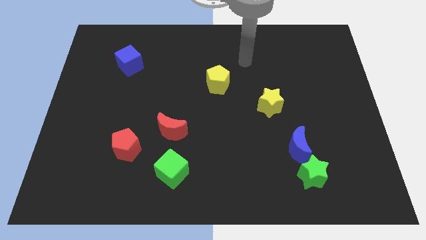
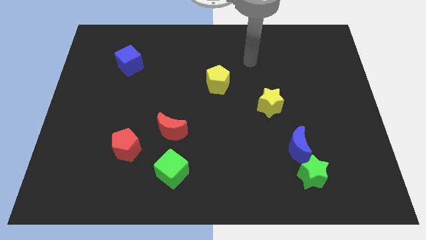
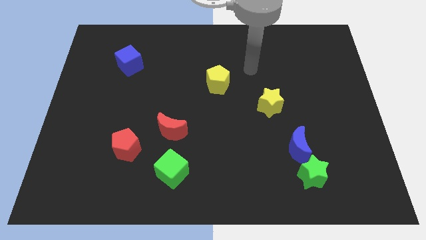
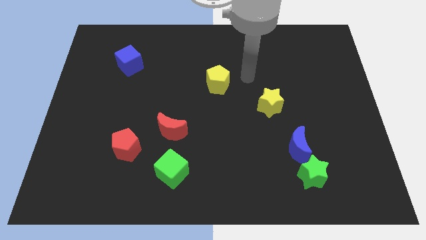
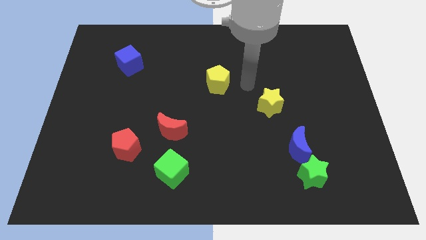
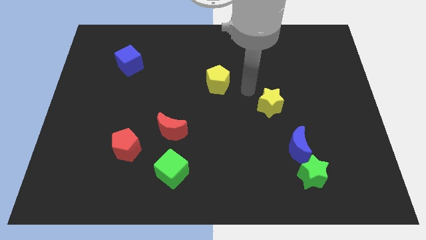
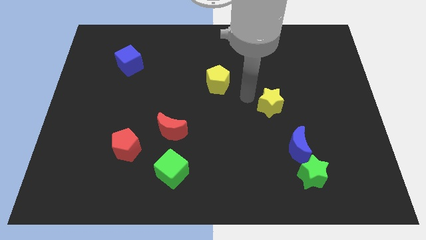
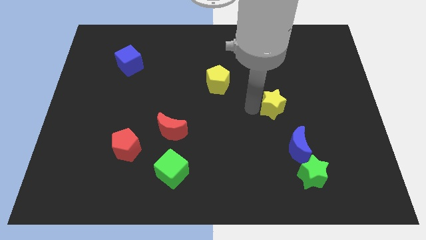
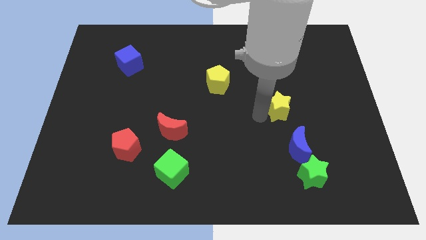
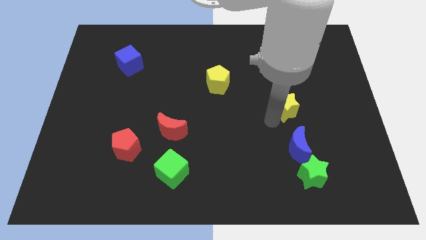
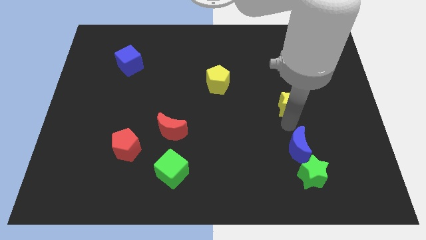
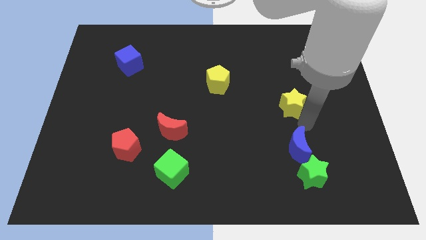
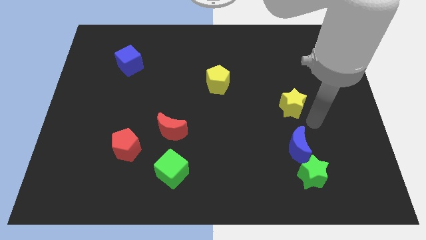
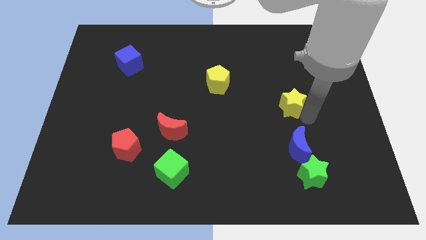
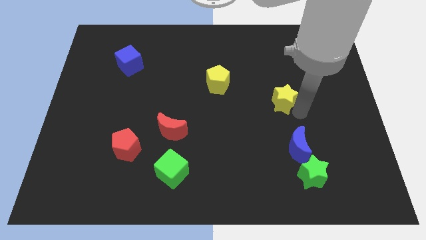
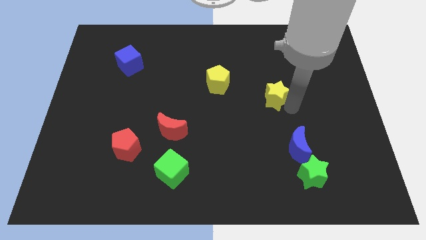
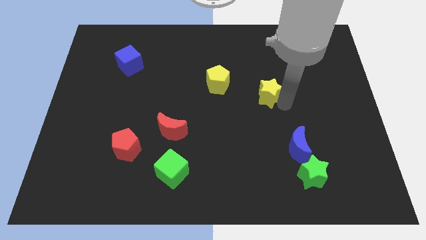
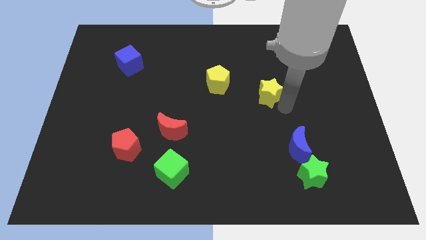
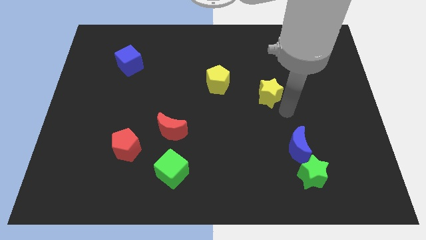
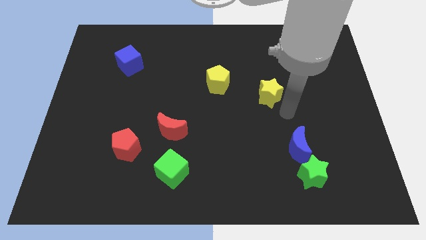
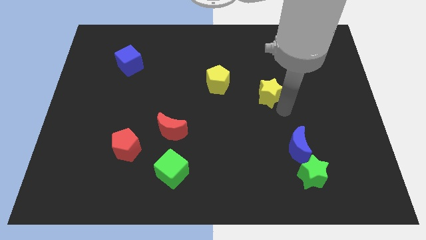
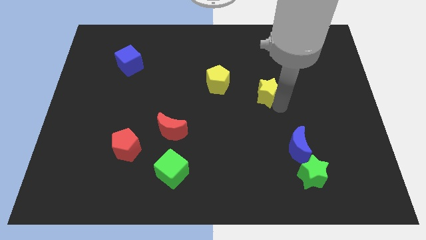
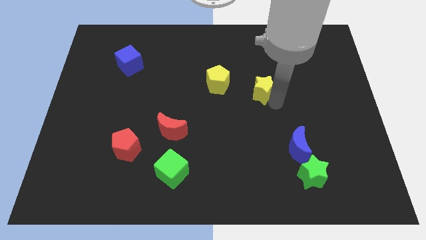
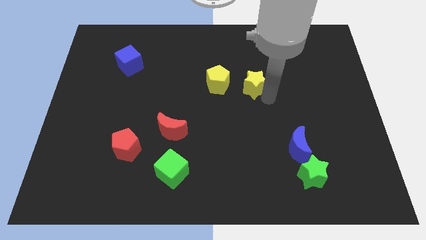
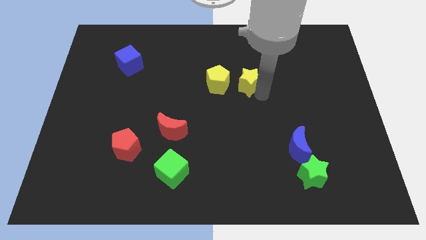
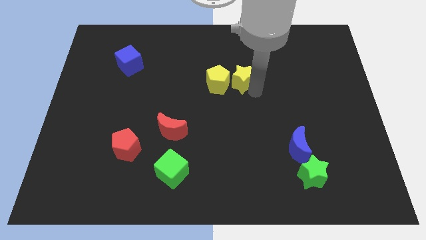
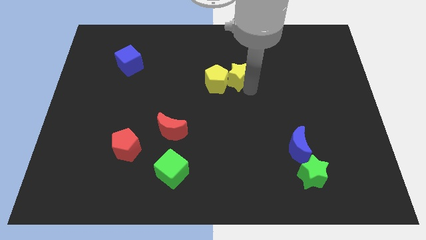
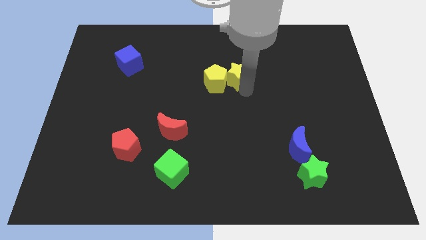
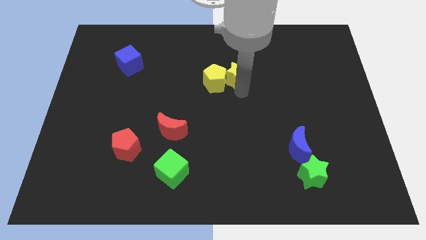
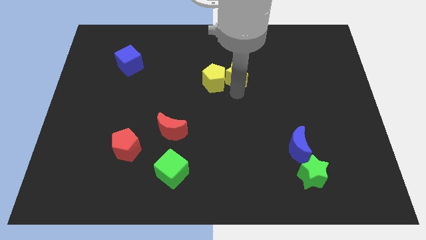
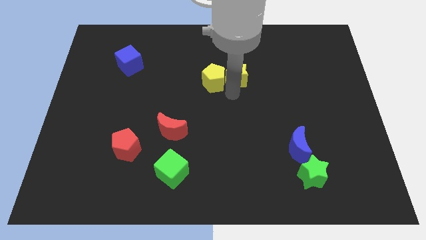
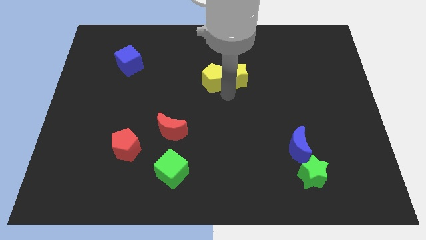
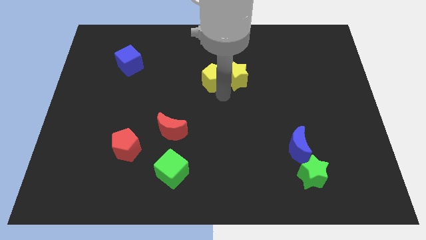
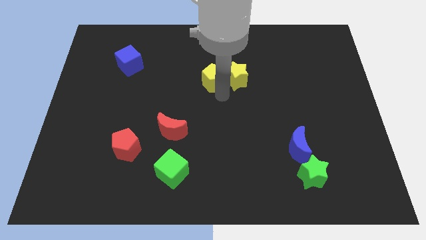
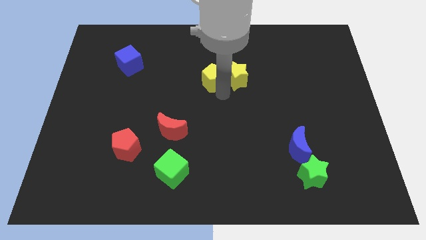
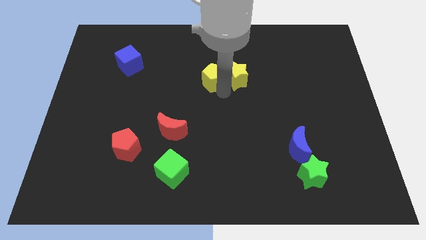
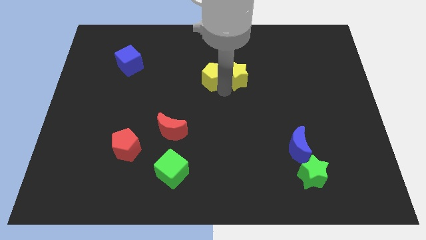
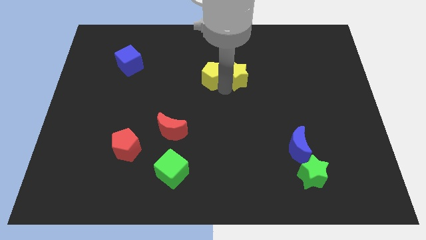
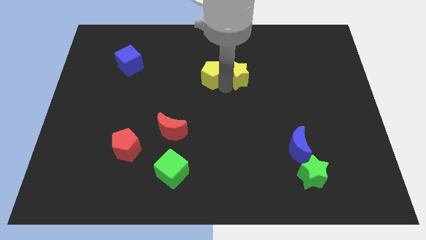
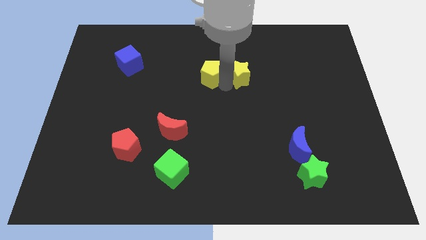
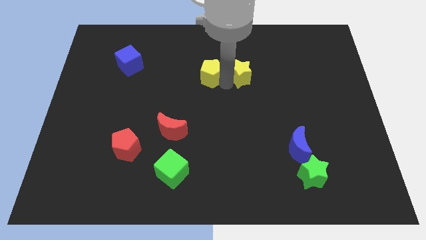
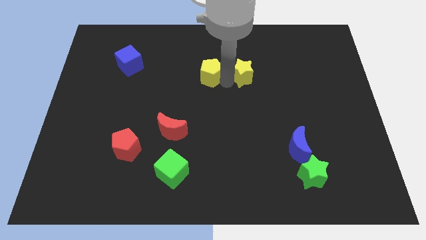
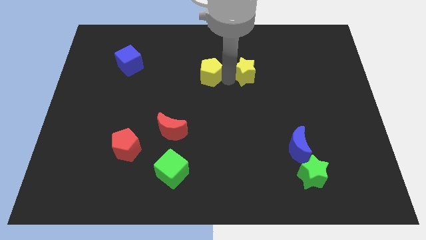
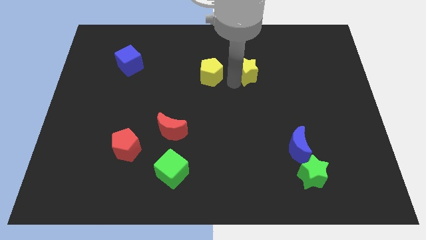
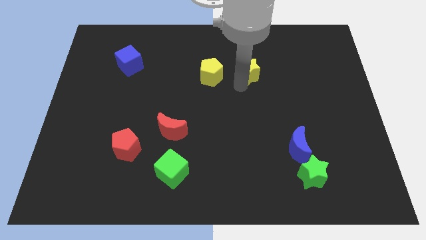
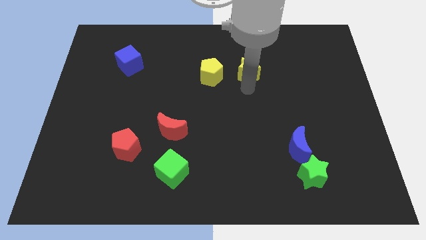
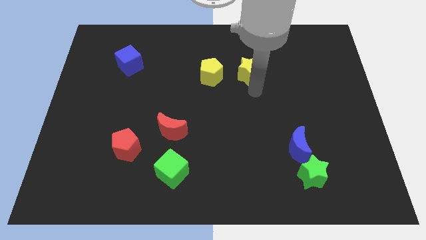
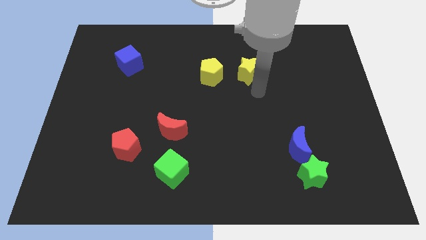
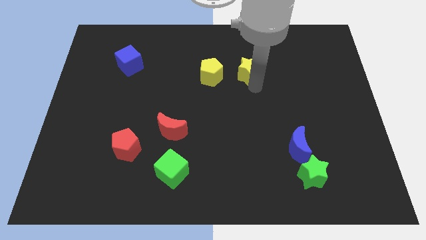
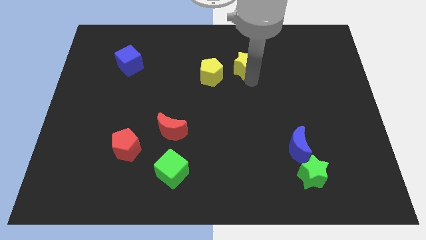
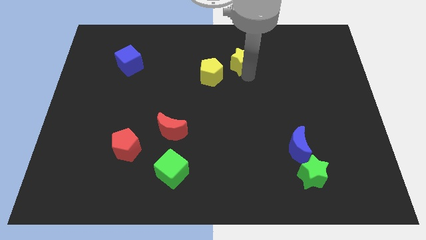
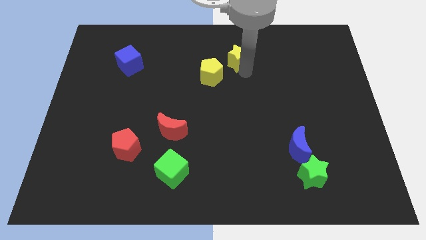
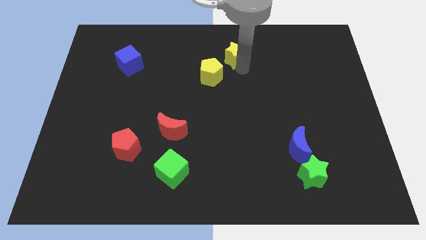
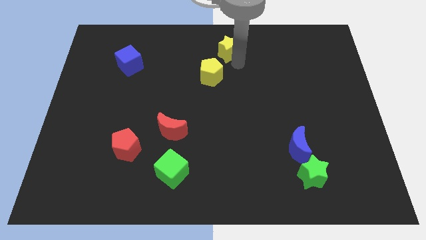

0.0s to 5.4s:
put the yellow star to the top side

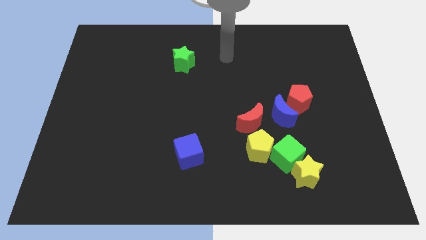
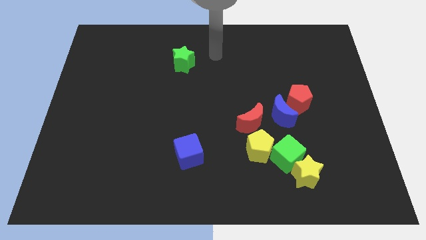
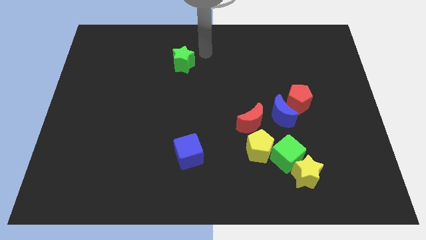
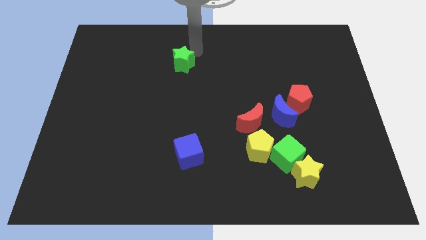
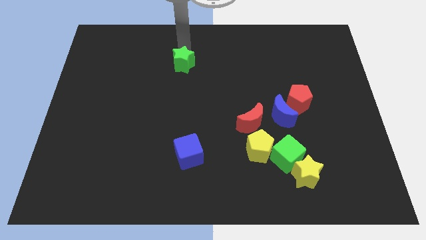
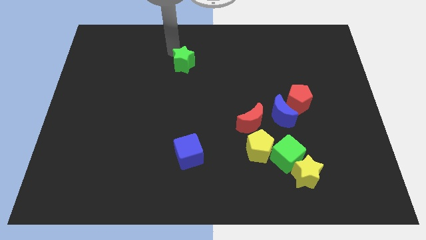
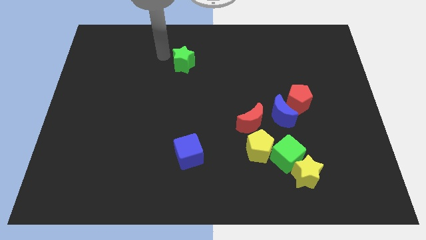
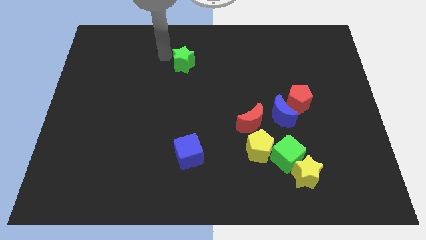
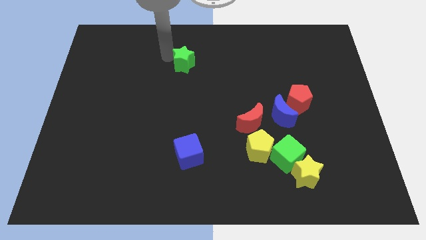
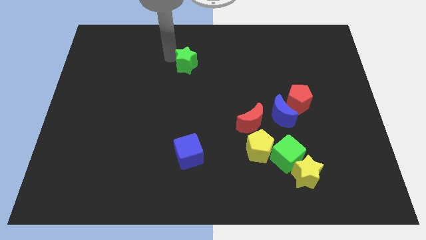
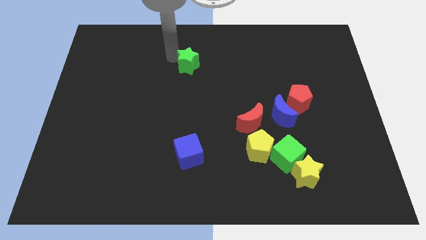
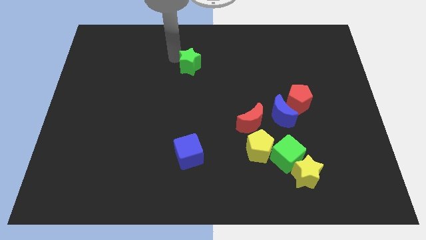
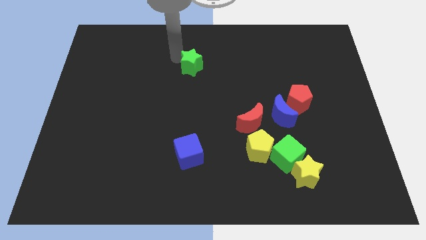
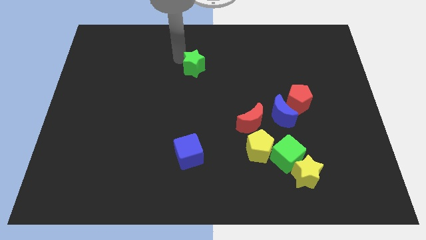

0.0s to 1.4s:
move the green star to the center of the board
